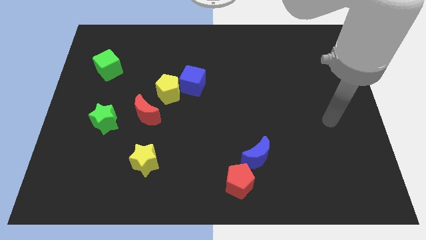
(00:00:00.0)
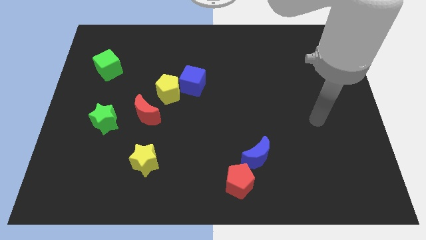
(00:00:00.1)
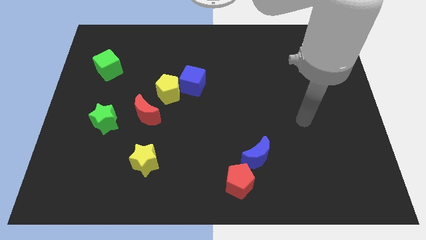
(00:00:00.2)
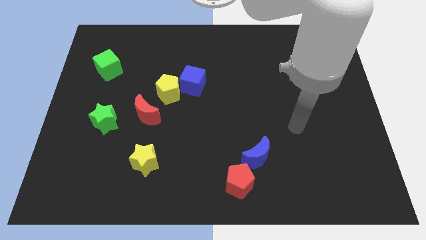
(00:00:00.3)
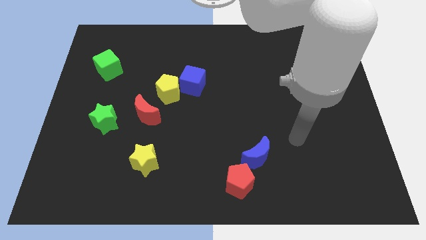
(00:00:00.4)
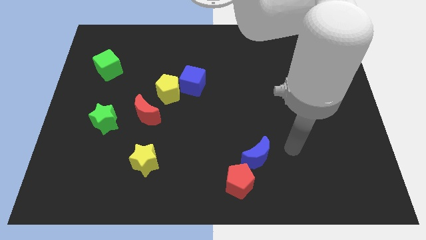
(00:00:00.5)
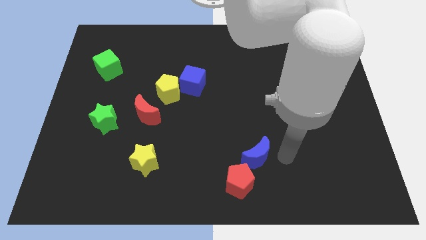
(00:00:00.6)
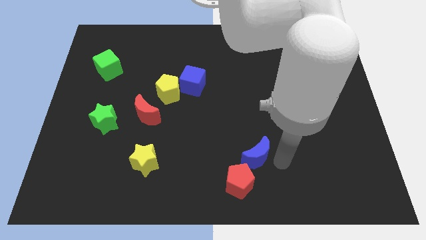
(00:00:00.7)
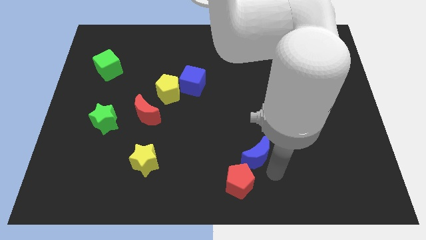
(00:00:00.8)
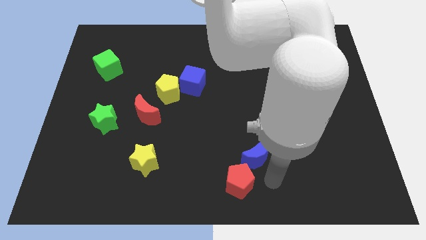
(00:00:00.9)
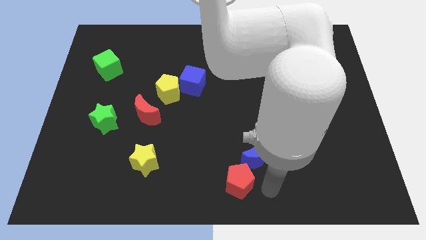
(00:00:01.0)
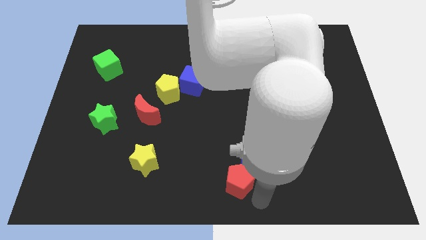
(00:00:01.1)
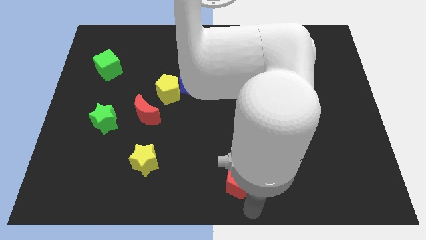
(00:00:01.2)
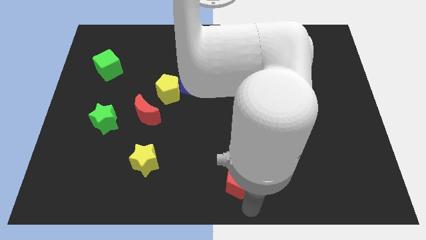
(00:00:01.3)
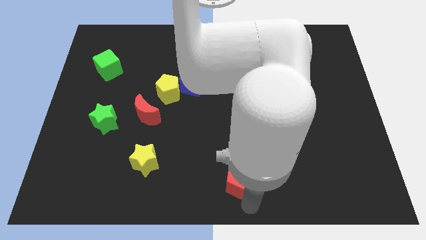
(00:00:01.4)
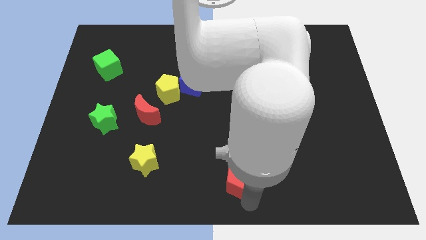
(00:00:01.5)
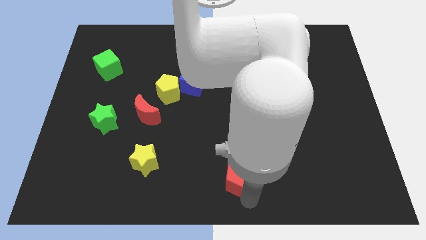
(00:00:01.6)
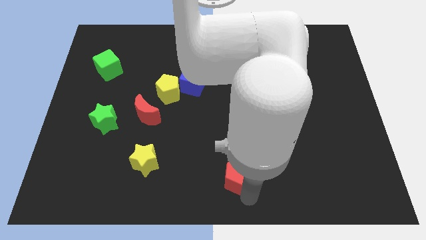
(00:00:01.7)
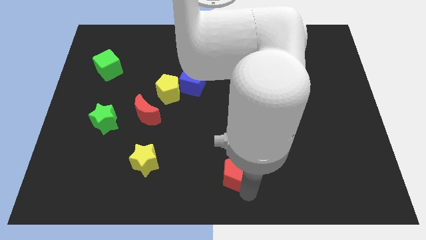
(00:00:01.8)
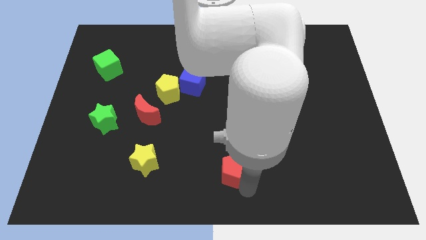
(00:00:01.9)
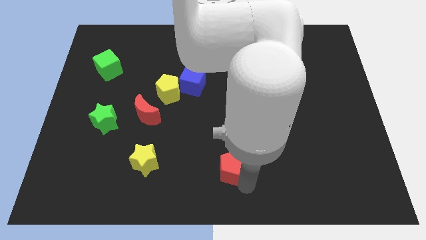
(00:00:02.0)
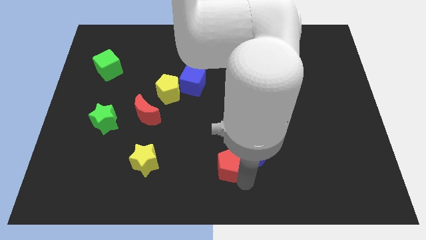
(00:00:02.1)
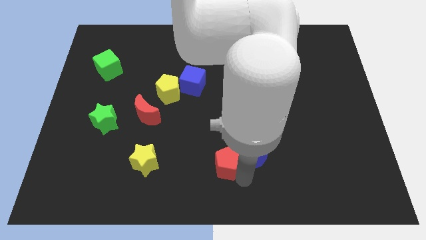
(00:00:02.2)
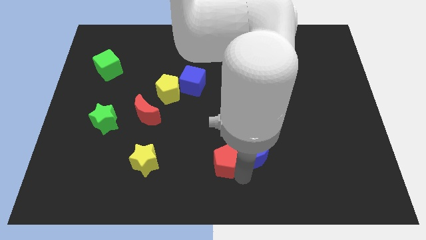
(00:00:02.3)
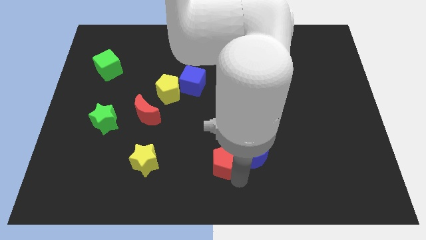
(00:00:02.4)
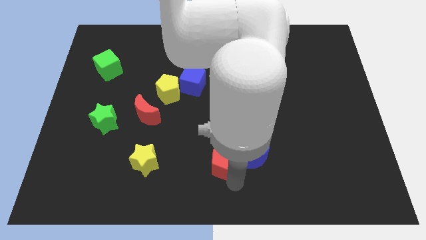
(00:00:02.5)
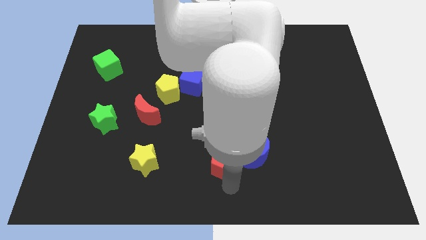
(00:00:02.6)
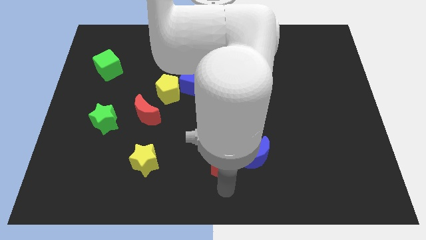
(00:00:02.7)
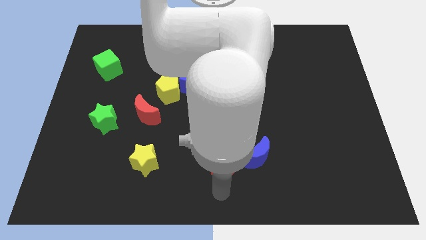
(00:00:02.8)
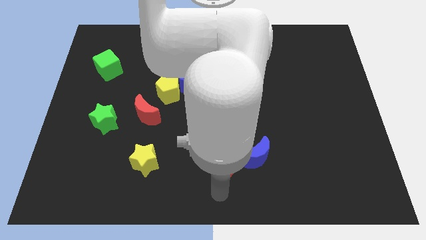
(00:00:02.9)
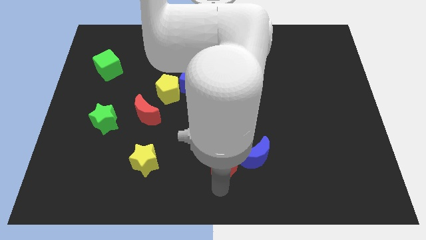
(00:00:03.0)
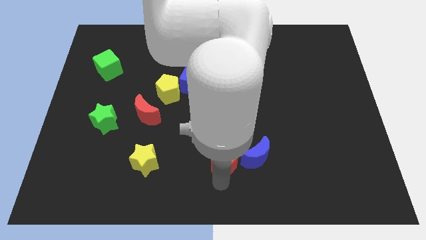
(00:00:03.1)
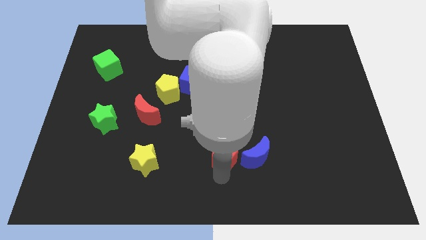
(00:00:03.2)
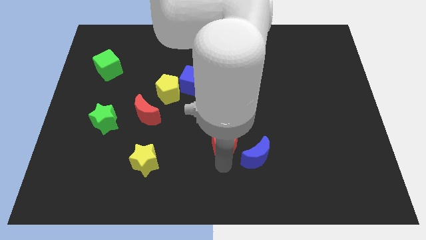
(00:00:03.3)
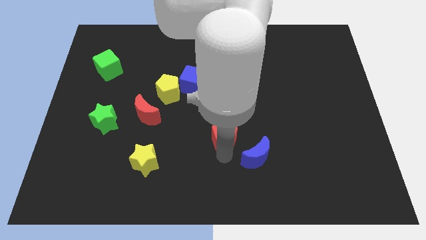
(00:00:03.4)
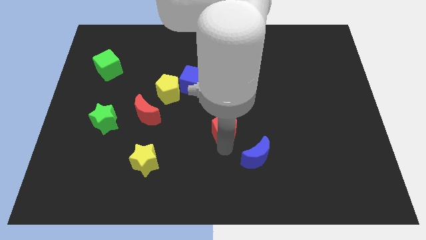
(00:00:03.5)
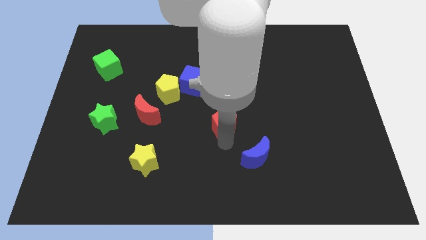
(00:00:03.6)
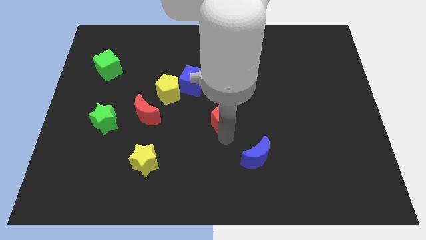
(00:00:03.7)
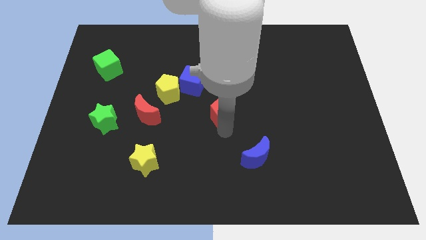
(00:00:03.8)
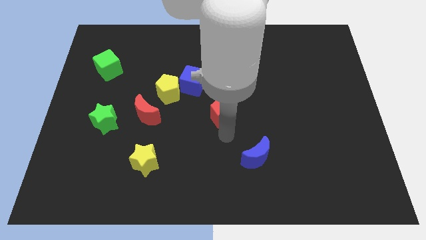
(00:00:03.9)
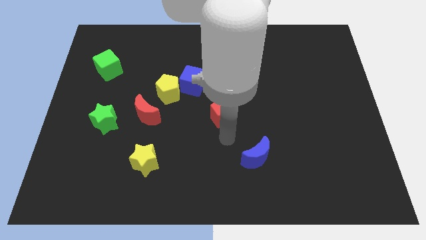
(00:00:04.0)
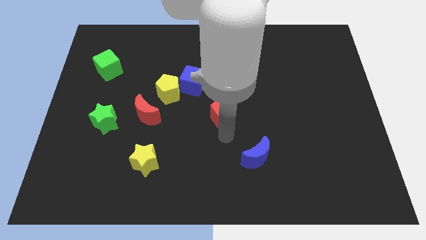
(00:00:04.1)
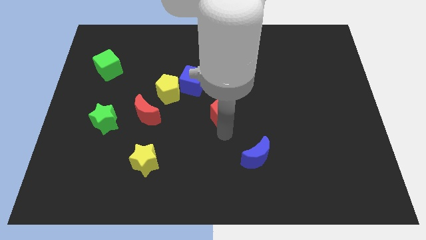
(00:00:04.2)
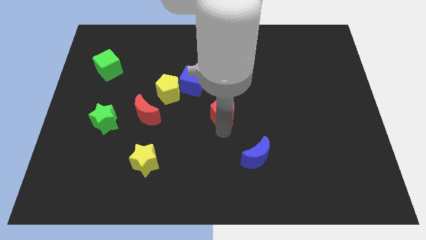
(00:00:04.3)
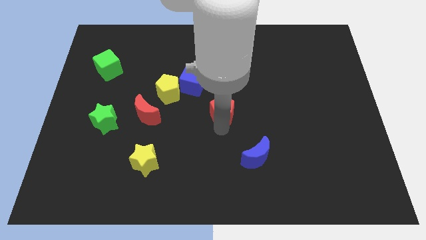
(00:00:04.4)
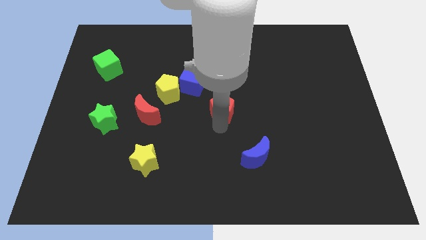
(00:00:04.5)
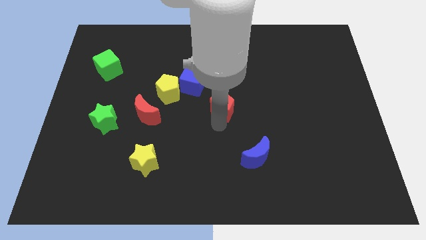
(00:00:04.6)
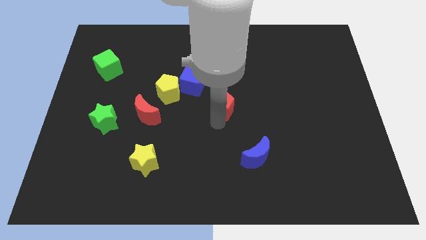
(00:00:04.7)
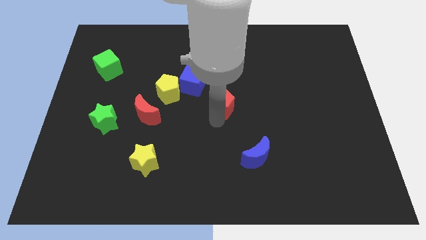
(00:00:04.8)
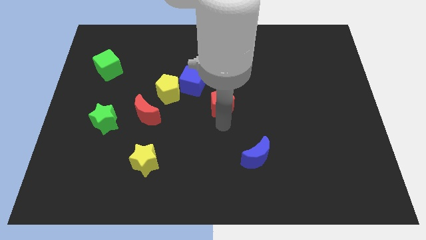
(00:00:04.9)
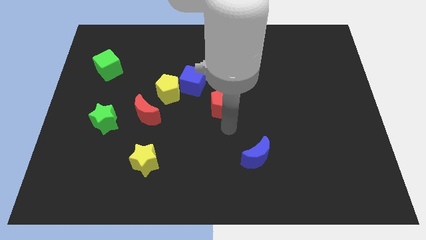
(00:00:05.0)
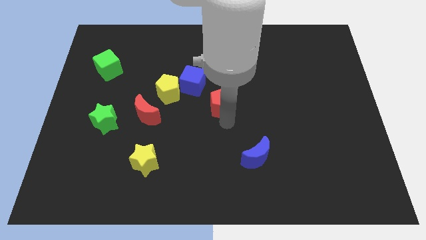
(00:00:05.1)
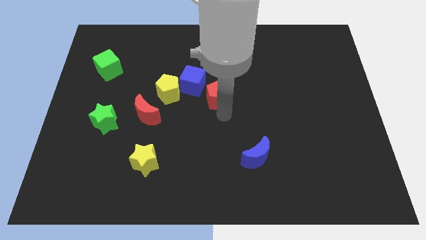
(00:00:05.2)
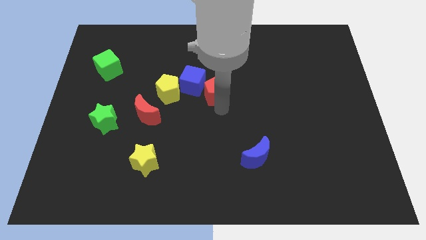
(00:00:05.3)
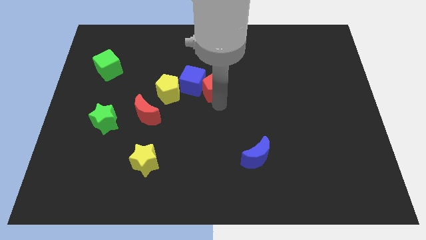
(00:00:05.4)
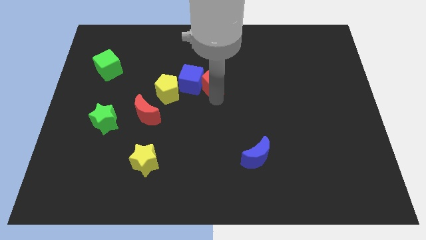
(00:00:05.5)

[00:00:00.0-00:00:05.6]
slide the red pentagon diagonally up and to the right of the blue cube
